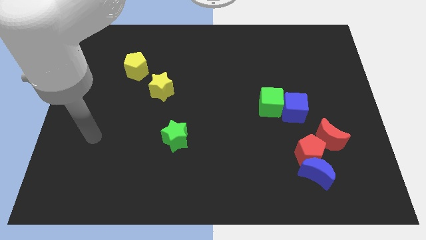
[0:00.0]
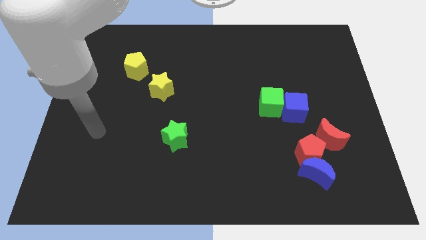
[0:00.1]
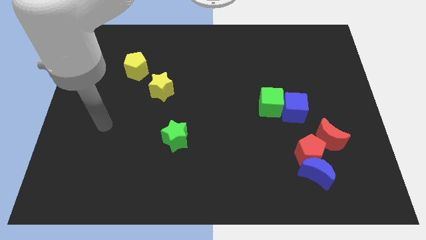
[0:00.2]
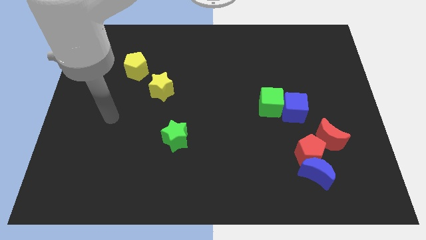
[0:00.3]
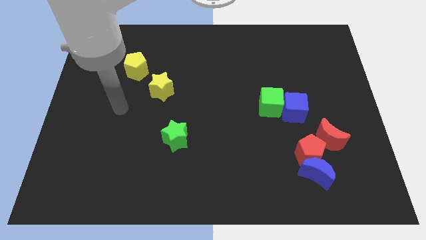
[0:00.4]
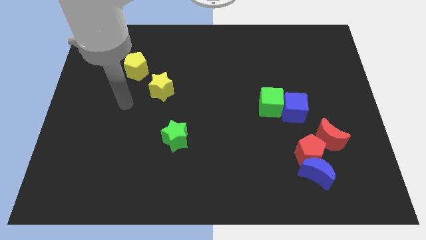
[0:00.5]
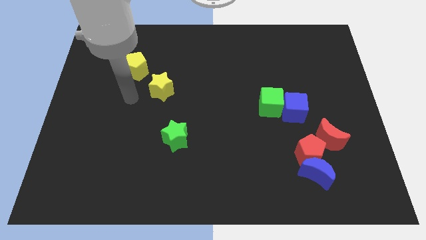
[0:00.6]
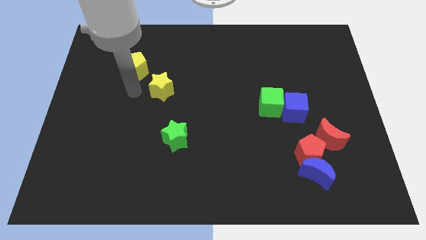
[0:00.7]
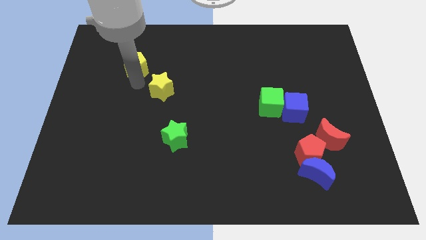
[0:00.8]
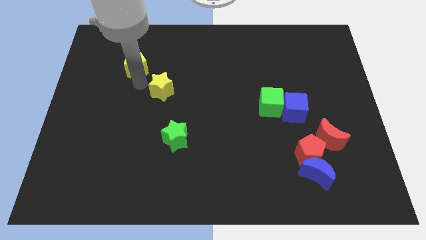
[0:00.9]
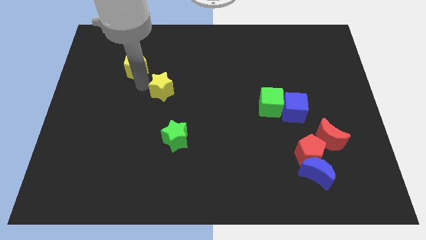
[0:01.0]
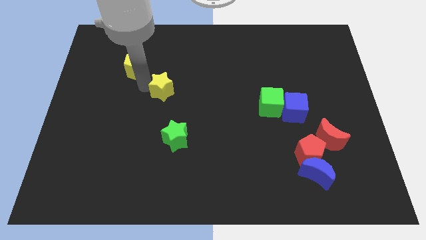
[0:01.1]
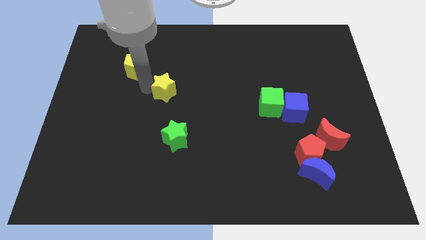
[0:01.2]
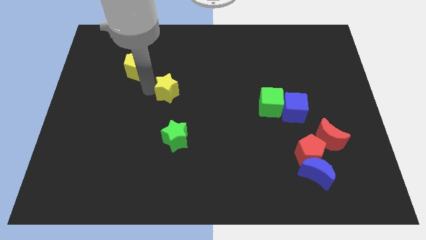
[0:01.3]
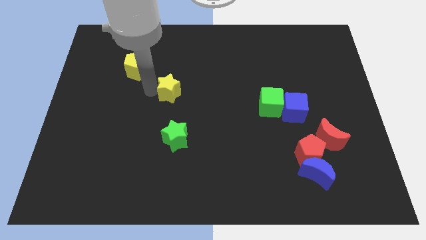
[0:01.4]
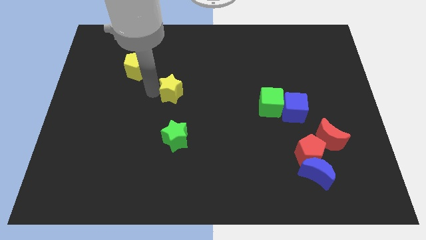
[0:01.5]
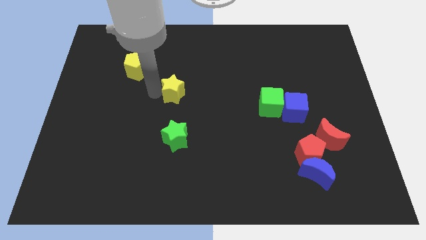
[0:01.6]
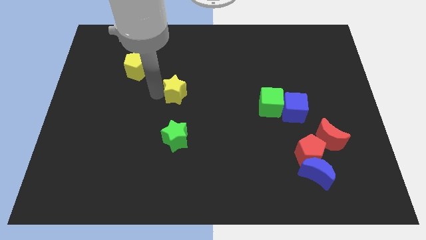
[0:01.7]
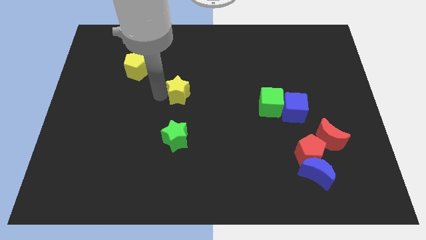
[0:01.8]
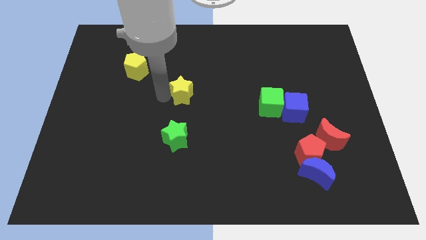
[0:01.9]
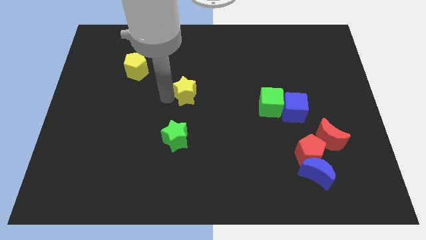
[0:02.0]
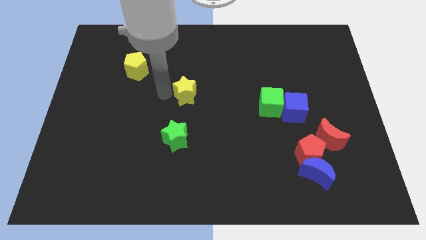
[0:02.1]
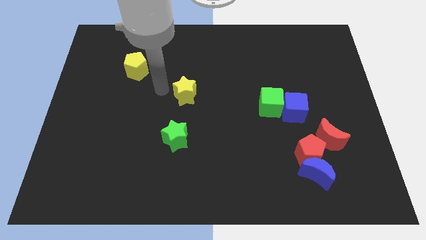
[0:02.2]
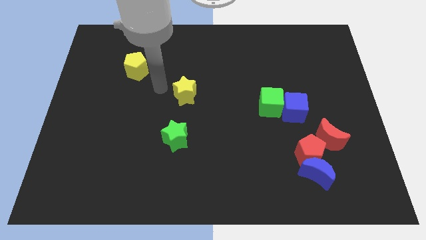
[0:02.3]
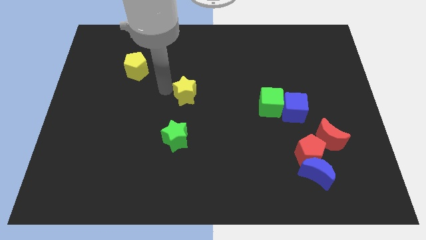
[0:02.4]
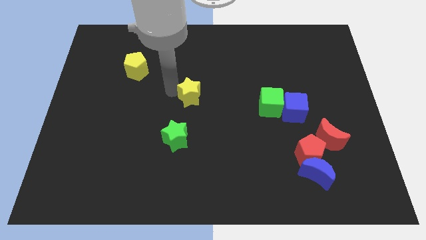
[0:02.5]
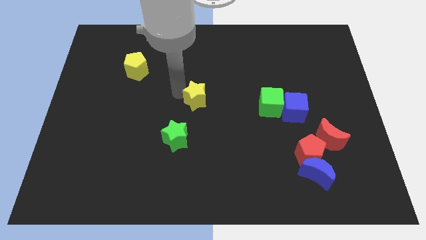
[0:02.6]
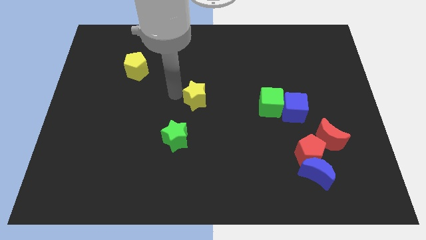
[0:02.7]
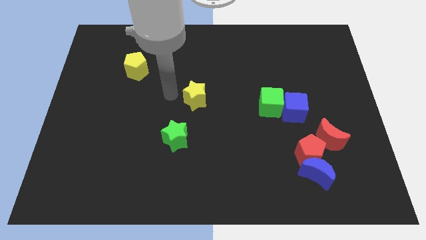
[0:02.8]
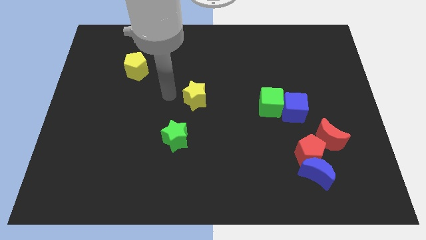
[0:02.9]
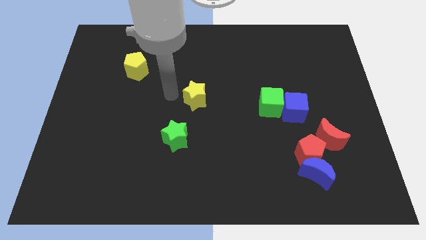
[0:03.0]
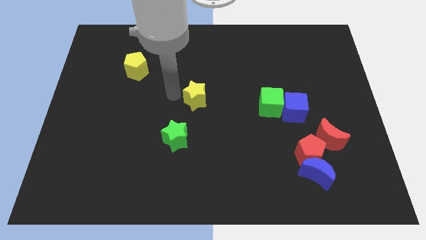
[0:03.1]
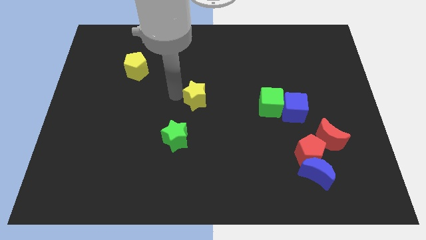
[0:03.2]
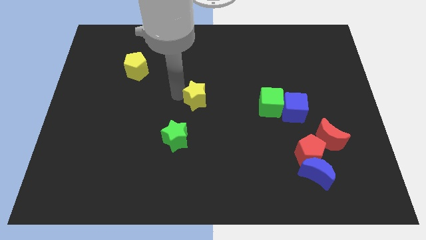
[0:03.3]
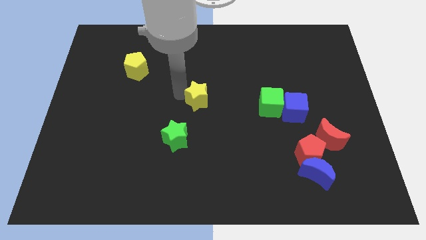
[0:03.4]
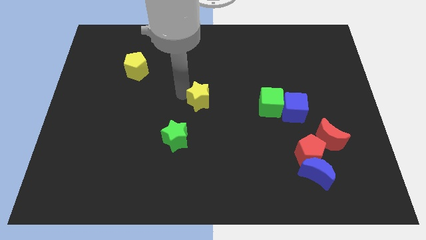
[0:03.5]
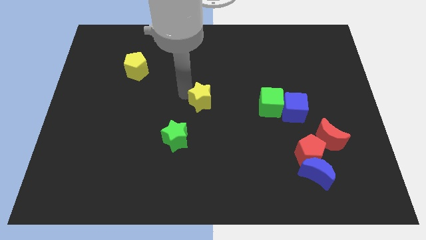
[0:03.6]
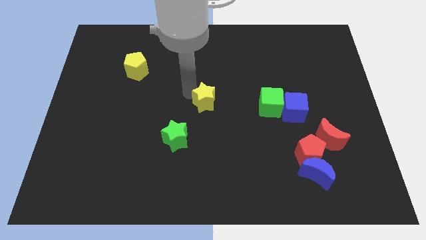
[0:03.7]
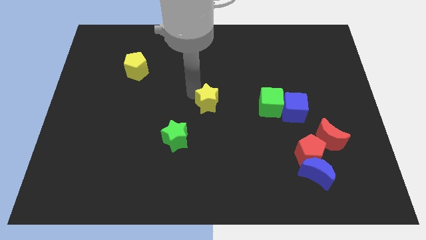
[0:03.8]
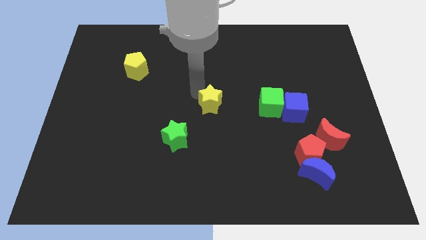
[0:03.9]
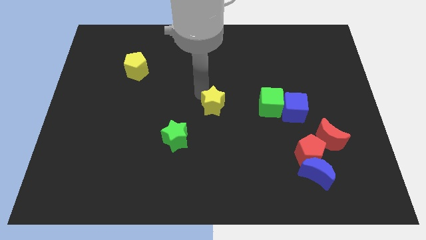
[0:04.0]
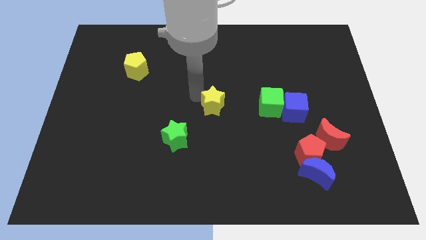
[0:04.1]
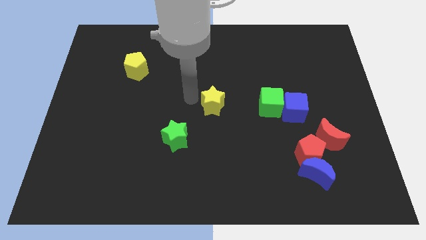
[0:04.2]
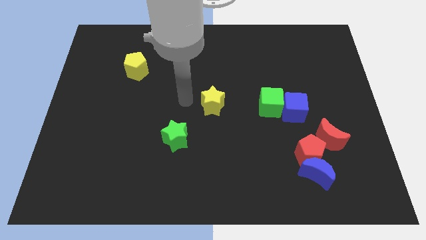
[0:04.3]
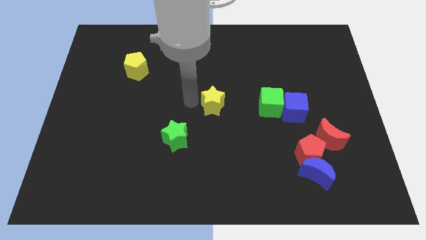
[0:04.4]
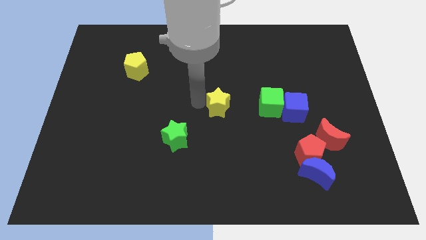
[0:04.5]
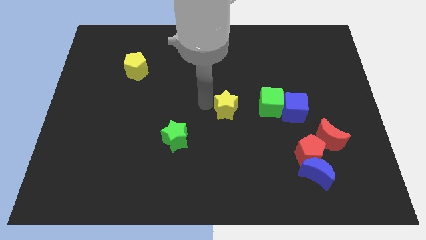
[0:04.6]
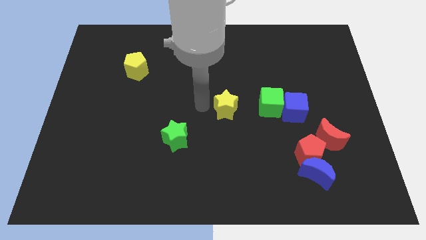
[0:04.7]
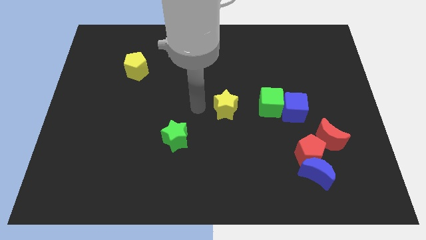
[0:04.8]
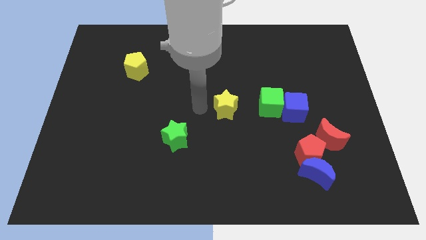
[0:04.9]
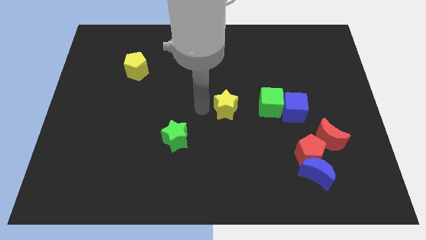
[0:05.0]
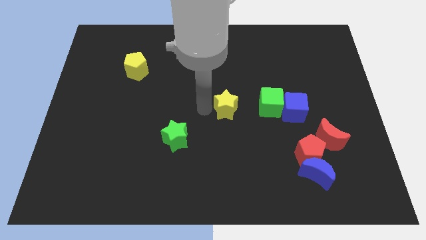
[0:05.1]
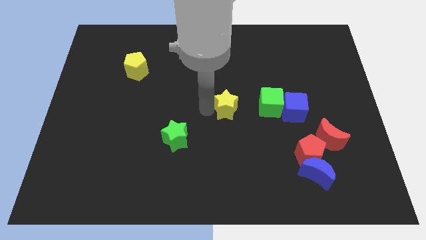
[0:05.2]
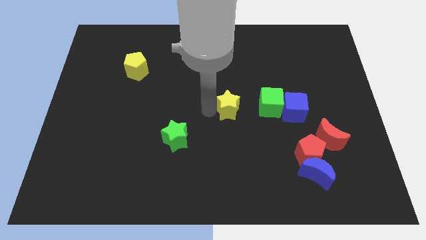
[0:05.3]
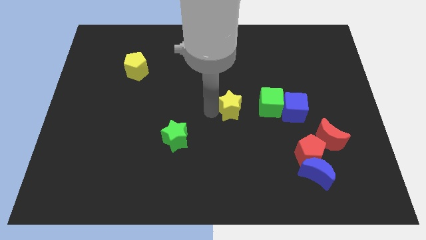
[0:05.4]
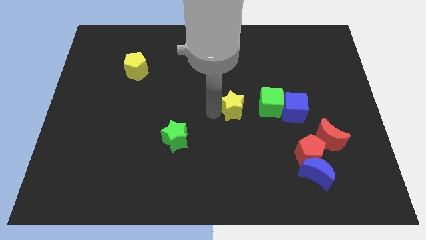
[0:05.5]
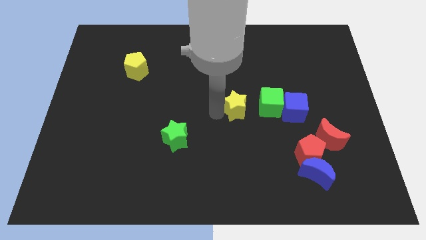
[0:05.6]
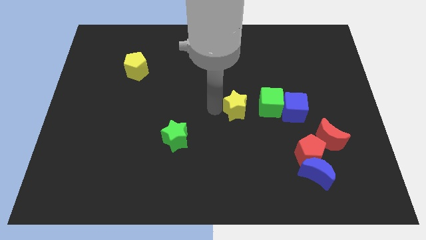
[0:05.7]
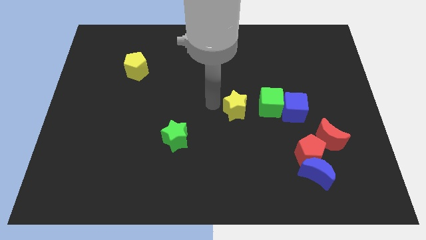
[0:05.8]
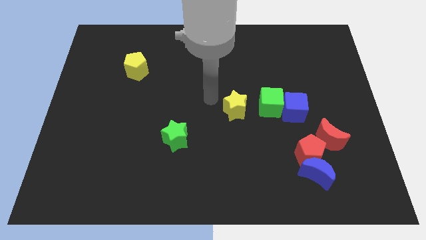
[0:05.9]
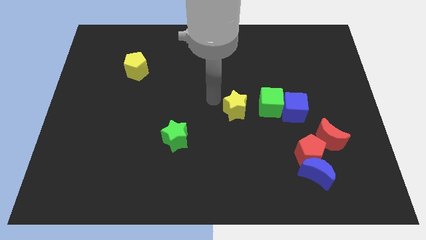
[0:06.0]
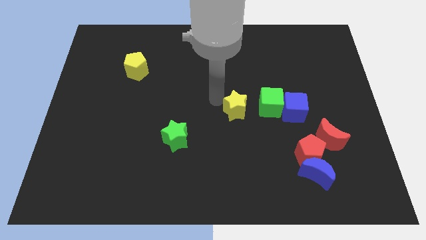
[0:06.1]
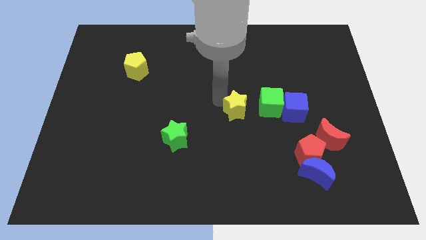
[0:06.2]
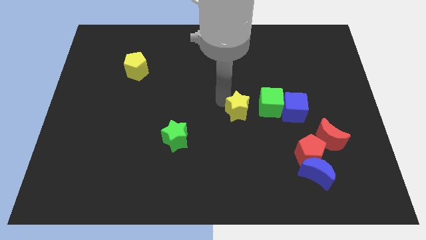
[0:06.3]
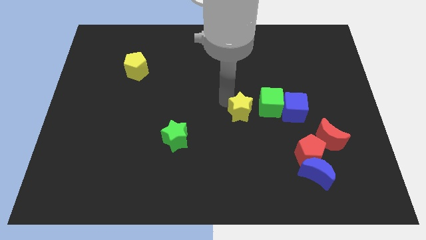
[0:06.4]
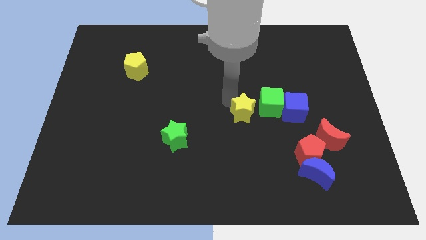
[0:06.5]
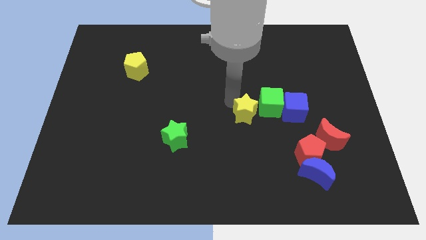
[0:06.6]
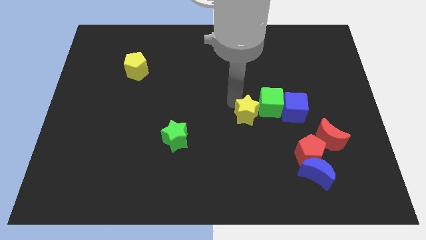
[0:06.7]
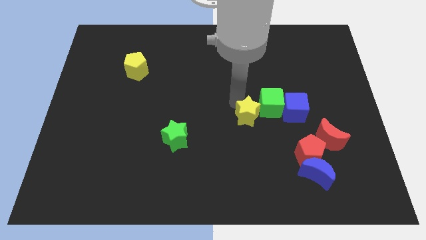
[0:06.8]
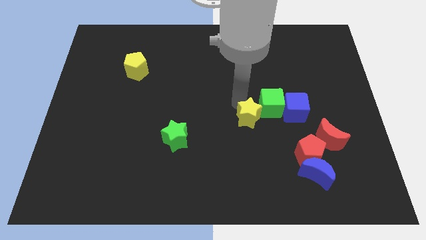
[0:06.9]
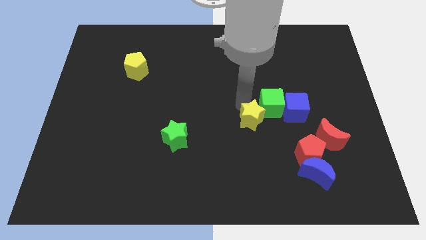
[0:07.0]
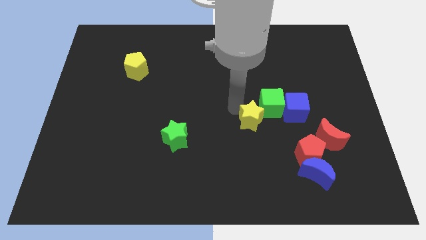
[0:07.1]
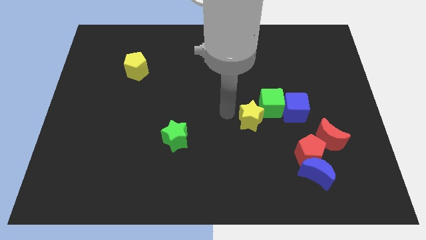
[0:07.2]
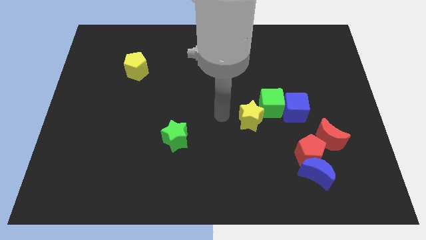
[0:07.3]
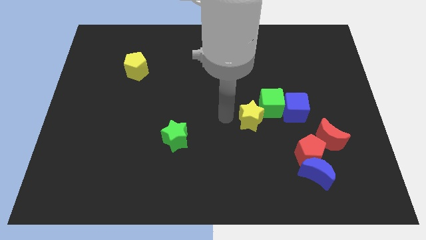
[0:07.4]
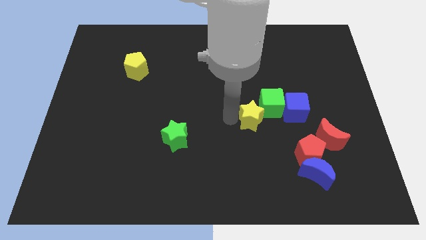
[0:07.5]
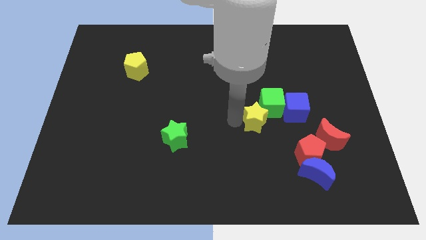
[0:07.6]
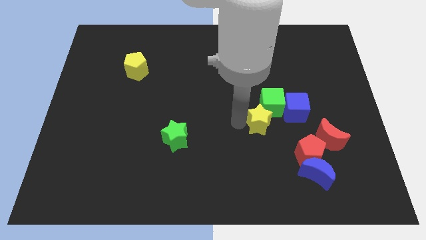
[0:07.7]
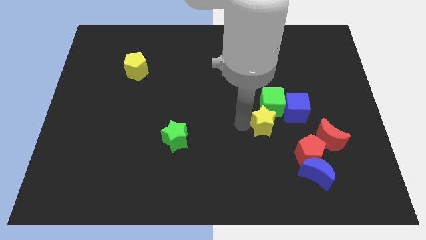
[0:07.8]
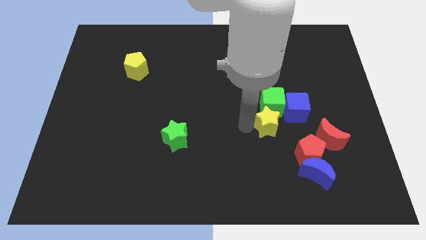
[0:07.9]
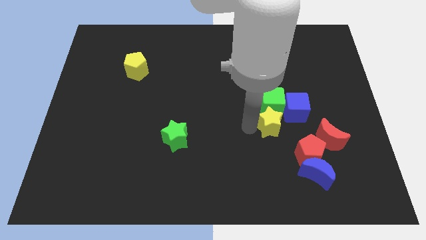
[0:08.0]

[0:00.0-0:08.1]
put the yellow star to the bottom right of the green cube
